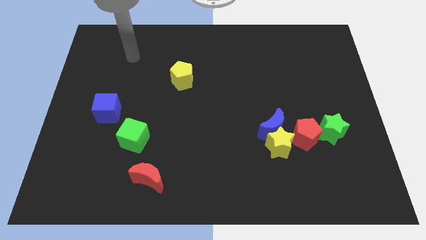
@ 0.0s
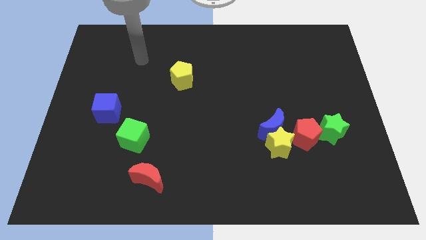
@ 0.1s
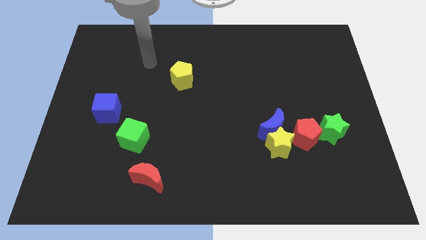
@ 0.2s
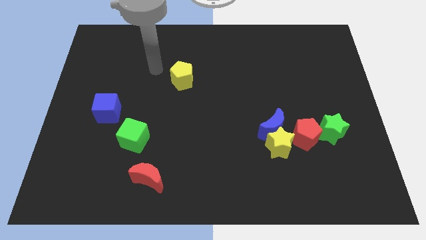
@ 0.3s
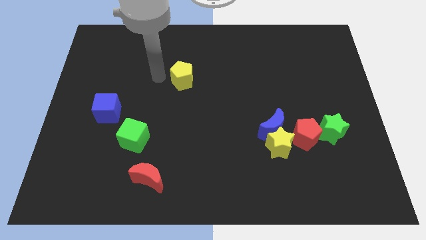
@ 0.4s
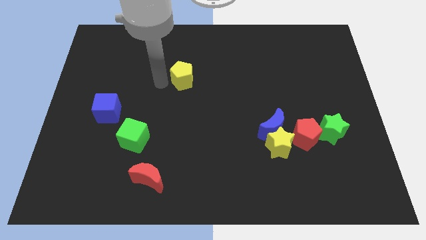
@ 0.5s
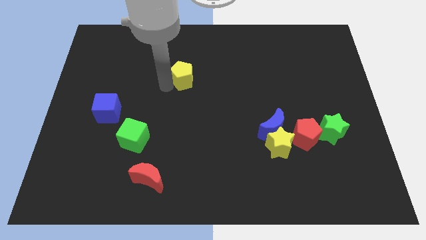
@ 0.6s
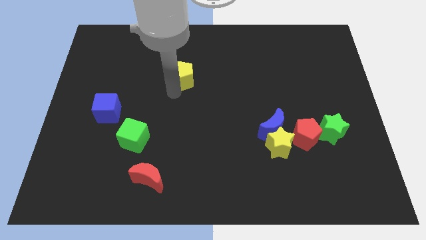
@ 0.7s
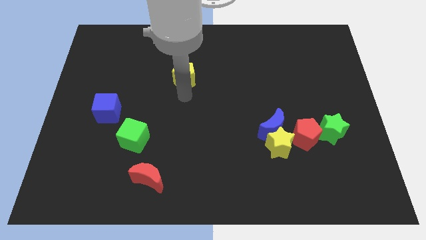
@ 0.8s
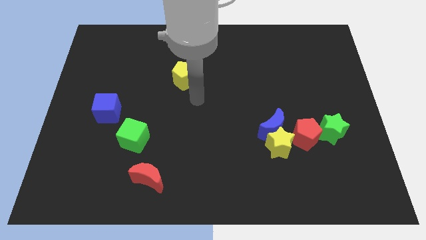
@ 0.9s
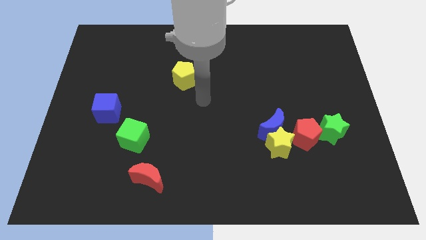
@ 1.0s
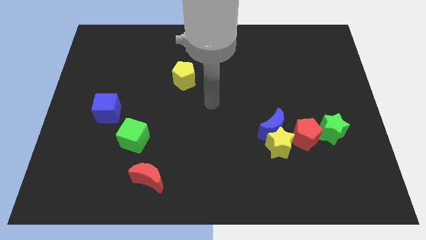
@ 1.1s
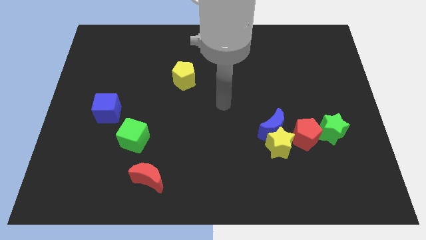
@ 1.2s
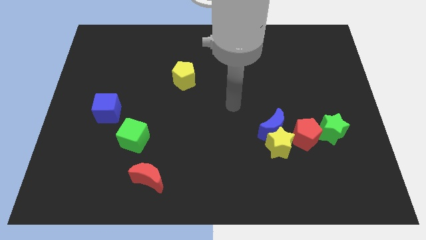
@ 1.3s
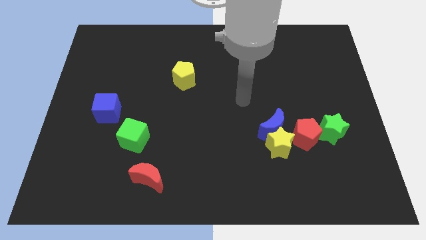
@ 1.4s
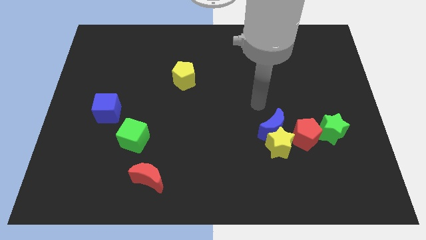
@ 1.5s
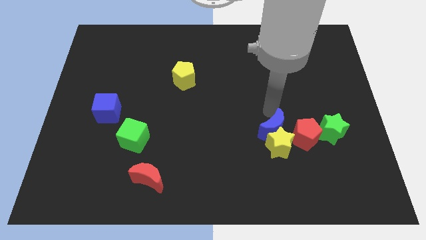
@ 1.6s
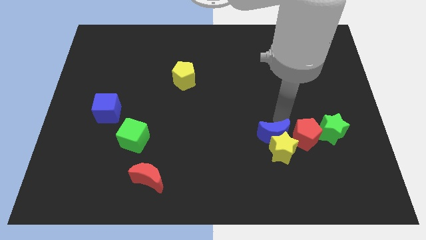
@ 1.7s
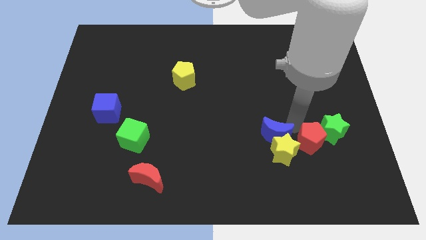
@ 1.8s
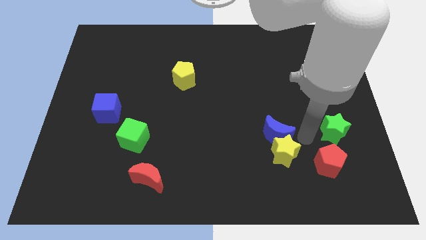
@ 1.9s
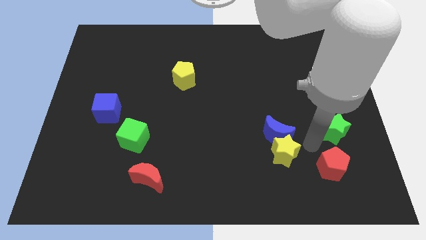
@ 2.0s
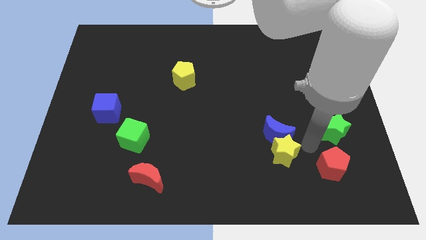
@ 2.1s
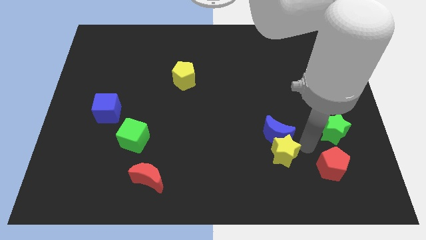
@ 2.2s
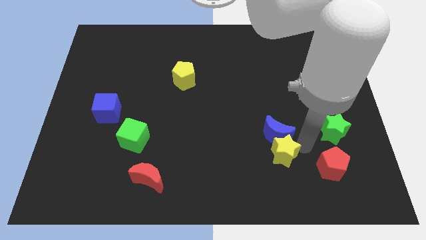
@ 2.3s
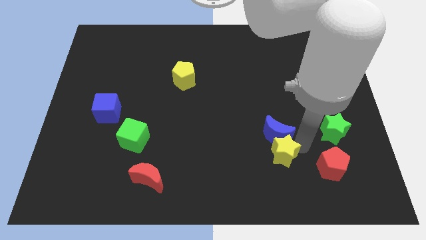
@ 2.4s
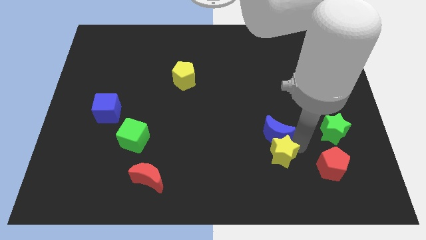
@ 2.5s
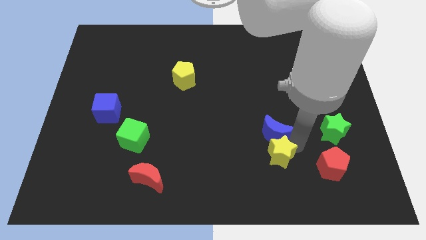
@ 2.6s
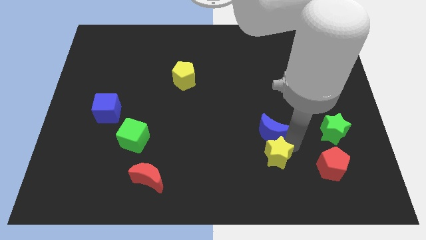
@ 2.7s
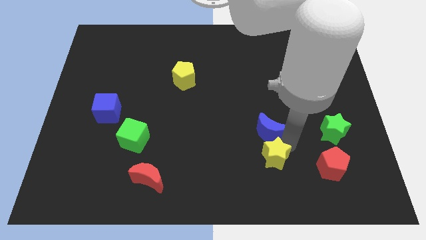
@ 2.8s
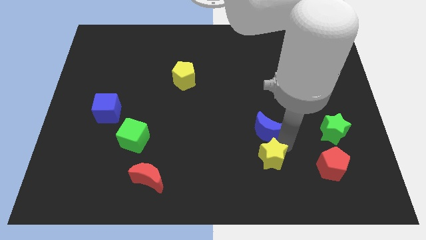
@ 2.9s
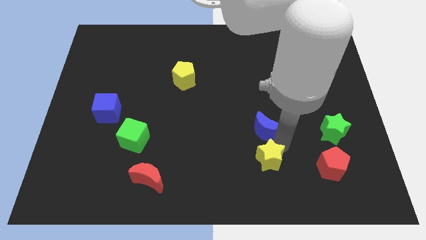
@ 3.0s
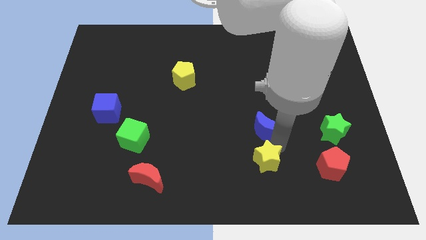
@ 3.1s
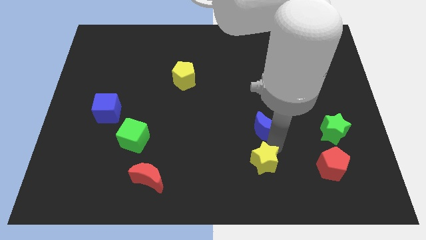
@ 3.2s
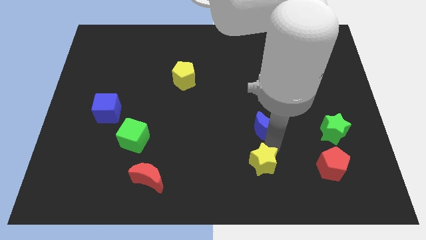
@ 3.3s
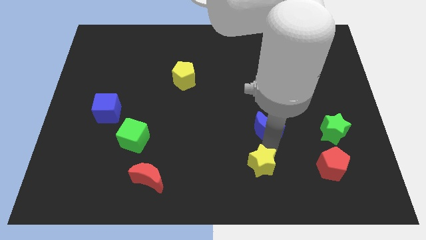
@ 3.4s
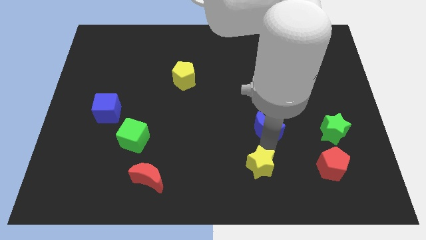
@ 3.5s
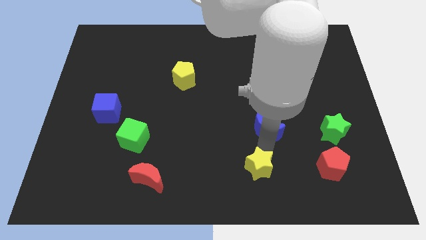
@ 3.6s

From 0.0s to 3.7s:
move the yellow star away from the blue moon and red pentagon

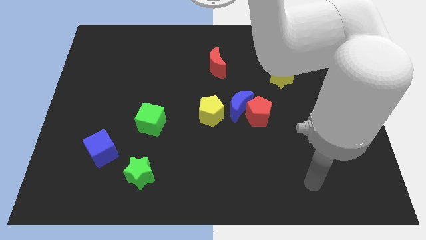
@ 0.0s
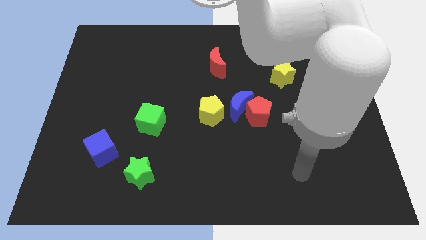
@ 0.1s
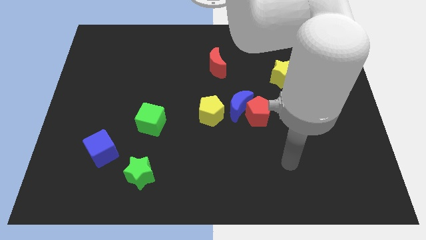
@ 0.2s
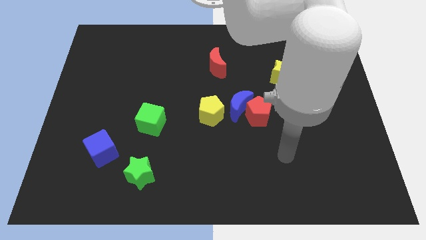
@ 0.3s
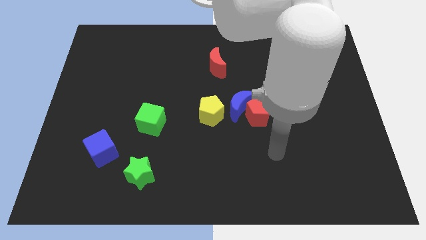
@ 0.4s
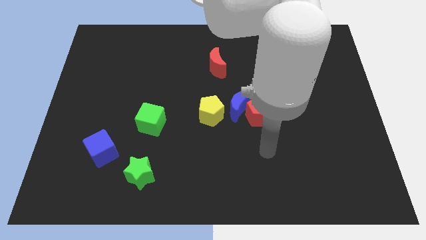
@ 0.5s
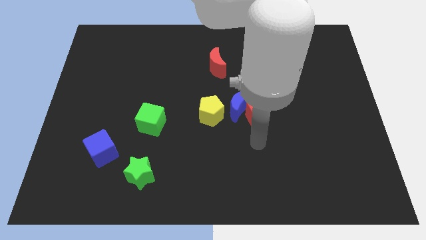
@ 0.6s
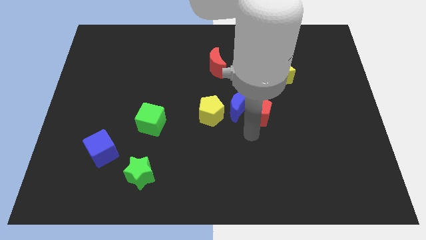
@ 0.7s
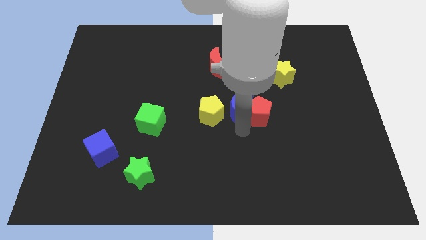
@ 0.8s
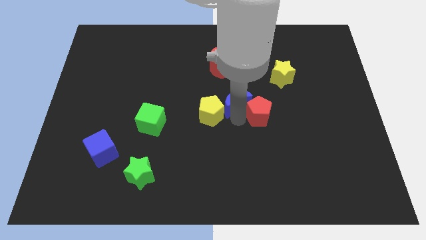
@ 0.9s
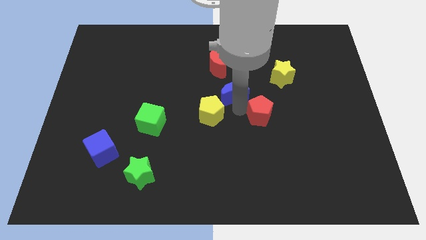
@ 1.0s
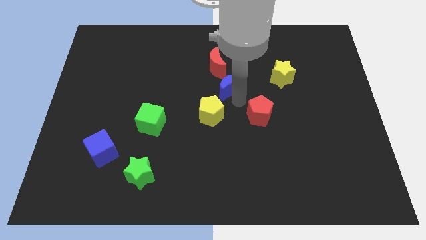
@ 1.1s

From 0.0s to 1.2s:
pull the red pentagon apart from the blue moon

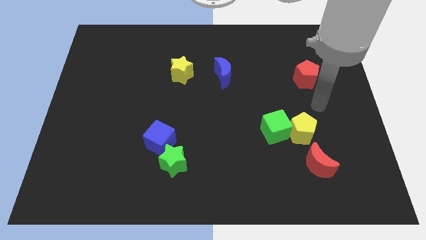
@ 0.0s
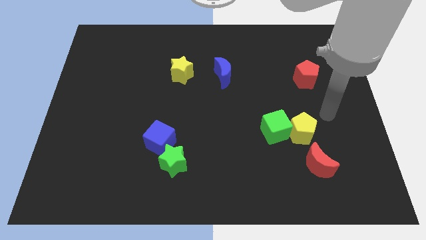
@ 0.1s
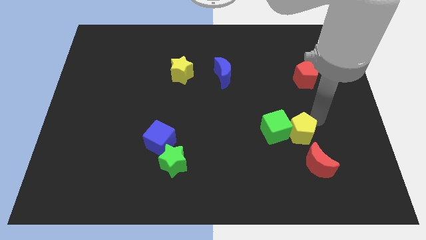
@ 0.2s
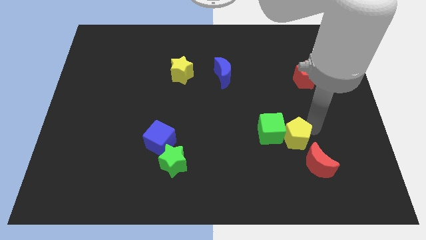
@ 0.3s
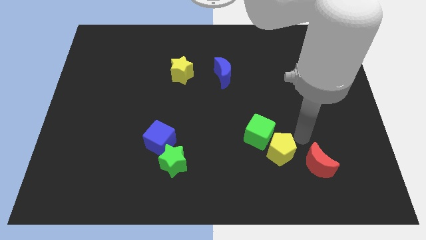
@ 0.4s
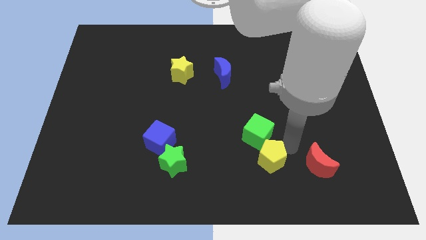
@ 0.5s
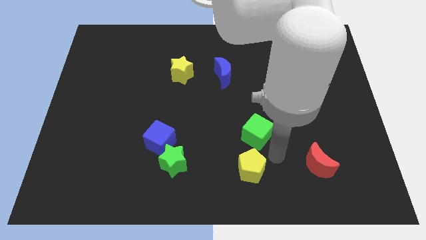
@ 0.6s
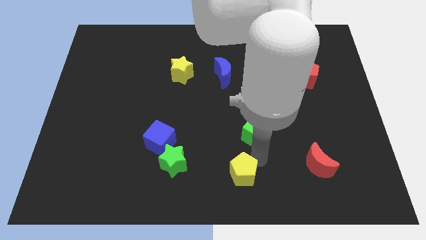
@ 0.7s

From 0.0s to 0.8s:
move the green cube away from the yellow pentagon

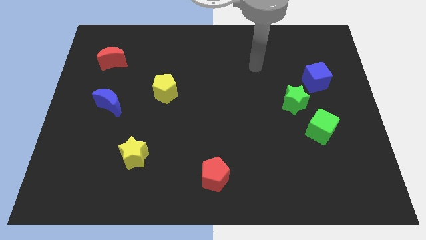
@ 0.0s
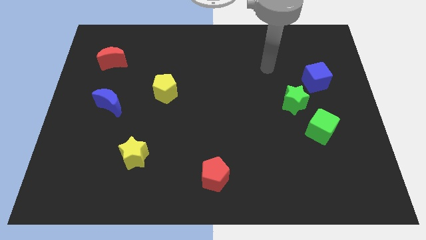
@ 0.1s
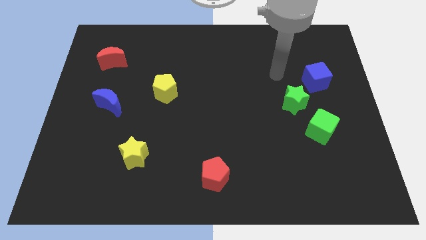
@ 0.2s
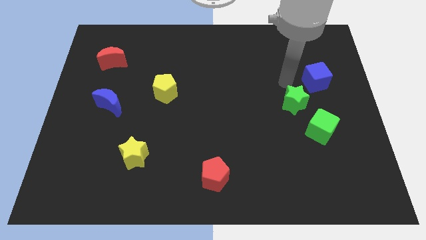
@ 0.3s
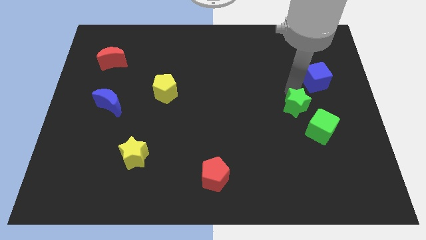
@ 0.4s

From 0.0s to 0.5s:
separate the blue cube from the green star

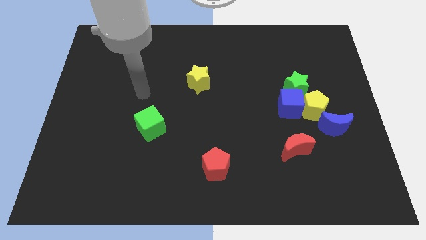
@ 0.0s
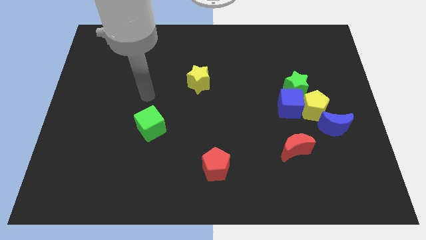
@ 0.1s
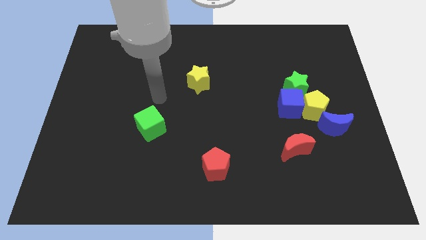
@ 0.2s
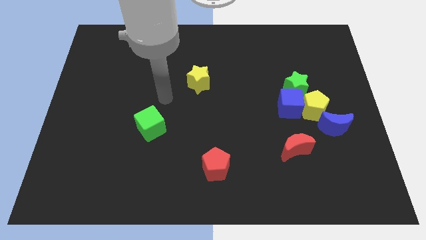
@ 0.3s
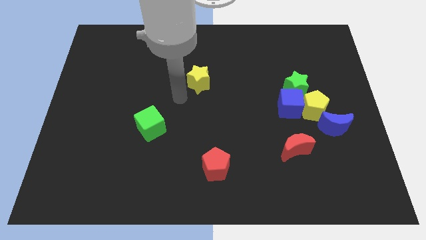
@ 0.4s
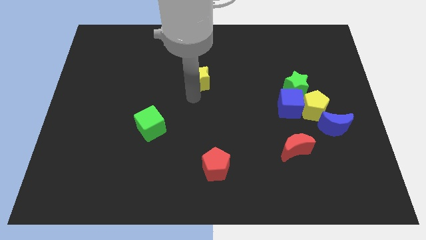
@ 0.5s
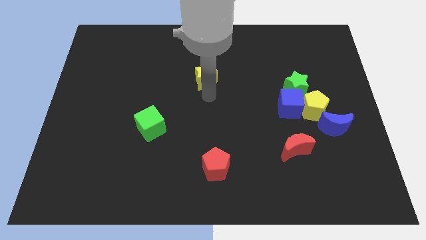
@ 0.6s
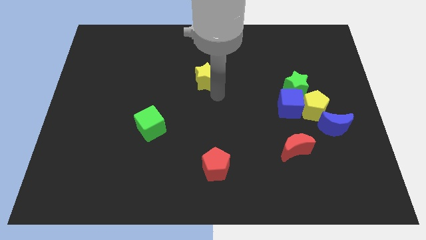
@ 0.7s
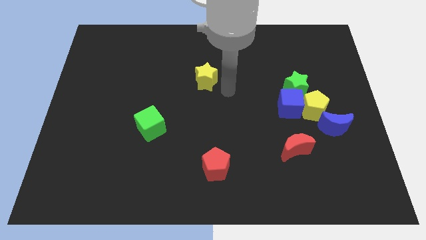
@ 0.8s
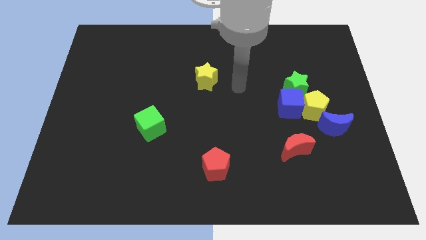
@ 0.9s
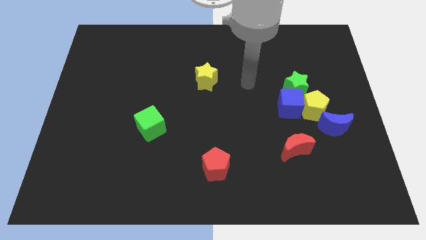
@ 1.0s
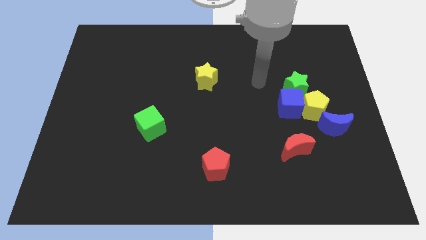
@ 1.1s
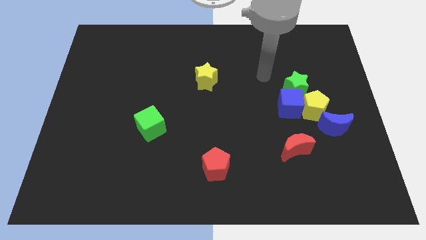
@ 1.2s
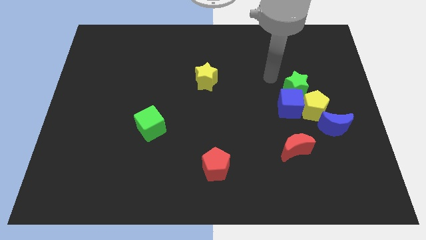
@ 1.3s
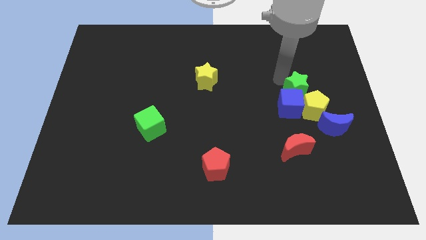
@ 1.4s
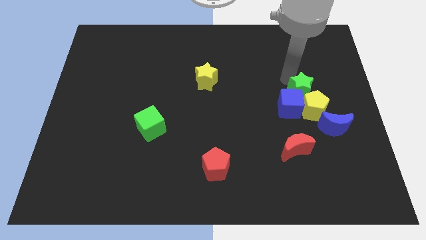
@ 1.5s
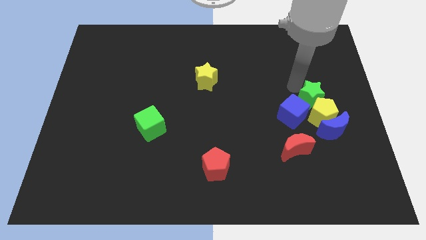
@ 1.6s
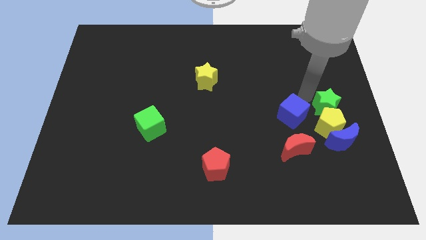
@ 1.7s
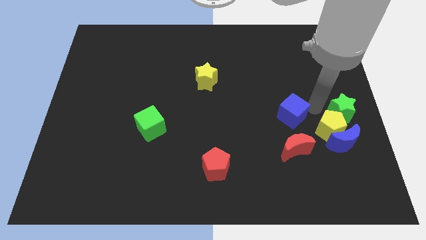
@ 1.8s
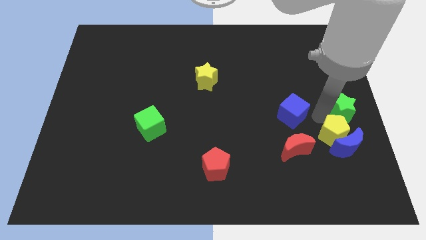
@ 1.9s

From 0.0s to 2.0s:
move the blue cube away from the yellow pentagon and green star

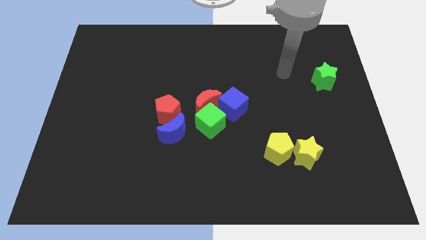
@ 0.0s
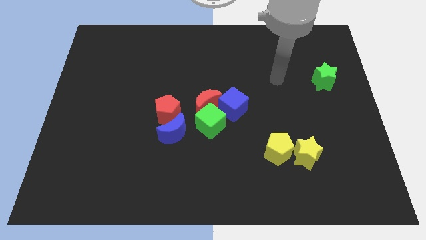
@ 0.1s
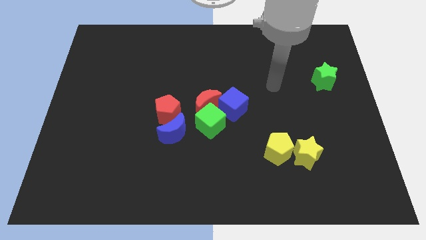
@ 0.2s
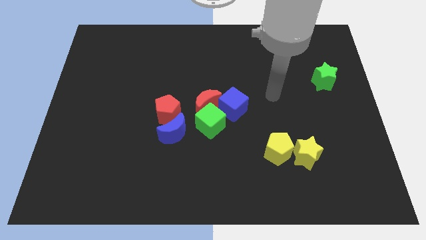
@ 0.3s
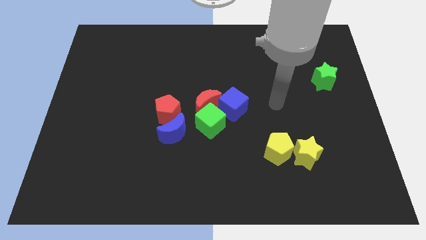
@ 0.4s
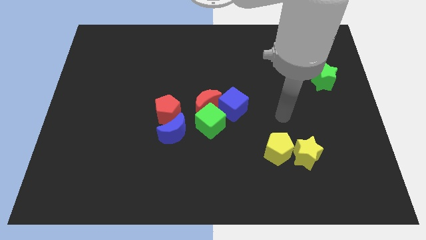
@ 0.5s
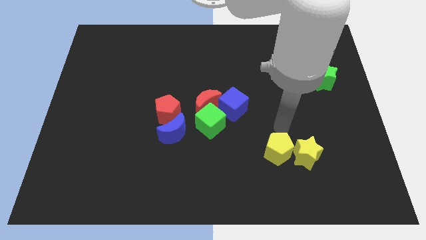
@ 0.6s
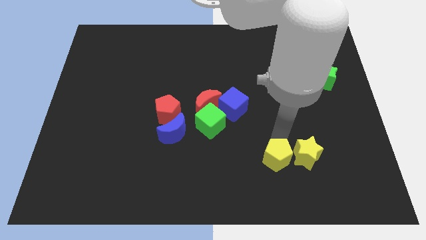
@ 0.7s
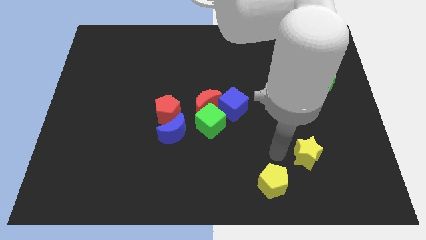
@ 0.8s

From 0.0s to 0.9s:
move the yellow star away from the yellow pentagon

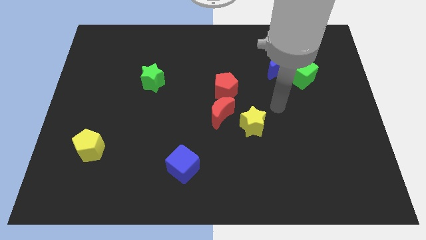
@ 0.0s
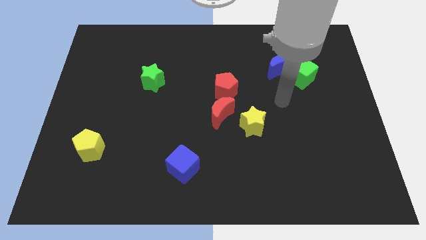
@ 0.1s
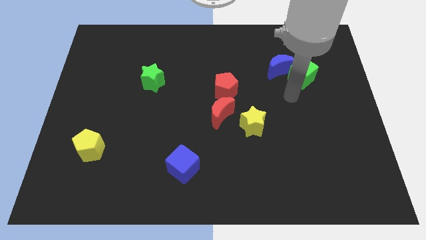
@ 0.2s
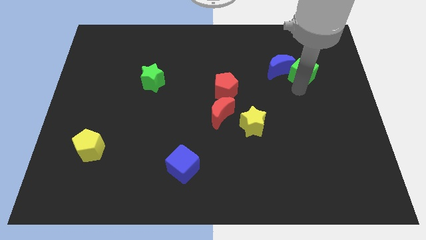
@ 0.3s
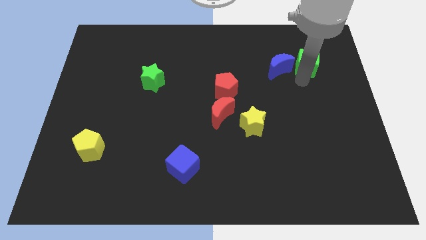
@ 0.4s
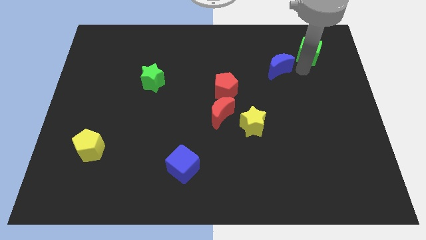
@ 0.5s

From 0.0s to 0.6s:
pull the blue moon apart from the green cube
